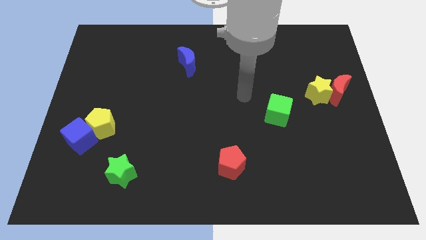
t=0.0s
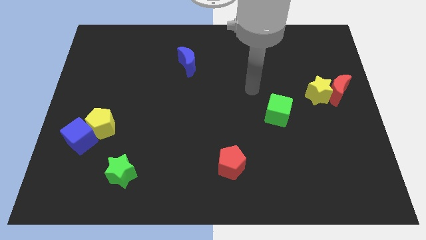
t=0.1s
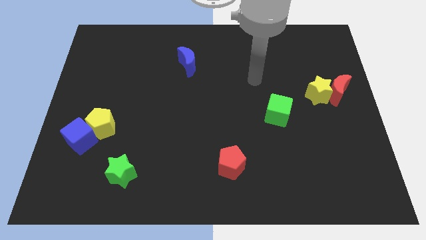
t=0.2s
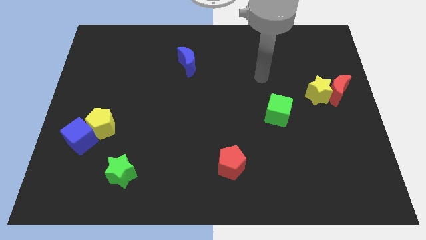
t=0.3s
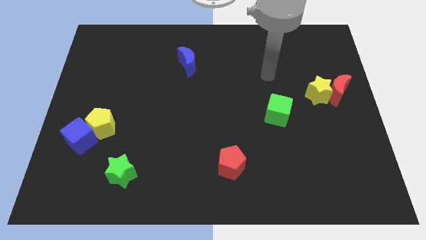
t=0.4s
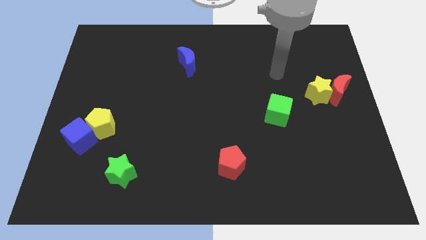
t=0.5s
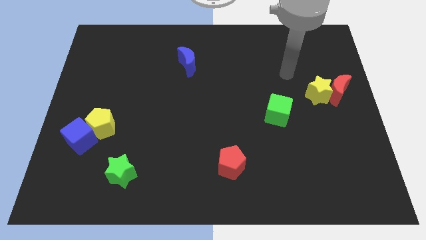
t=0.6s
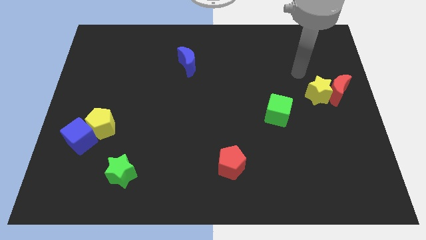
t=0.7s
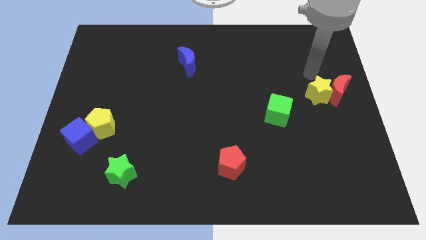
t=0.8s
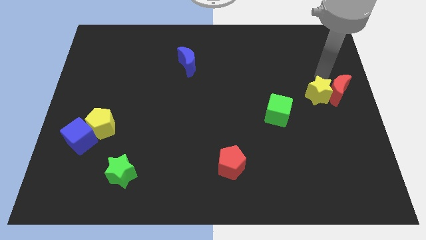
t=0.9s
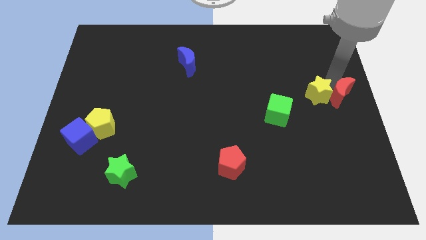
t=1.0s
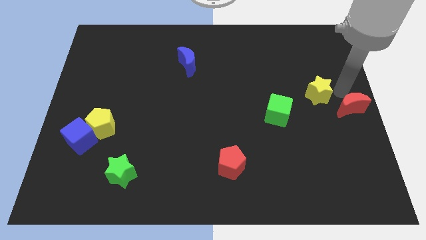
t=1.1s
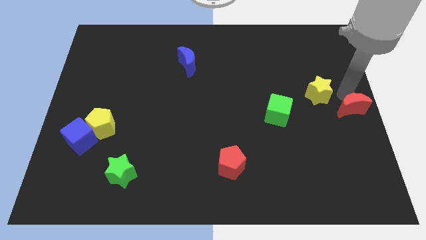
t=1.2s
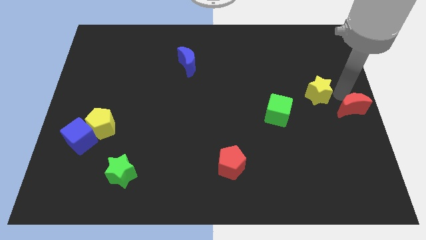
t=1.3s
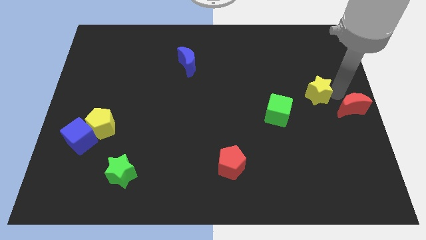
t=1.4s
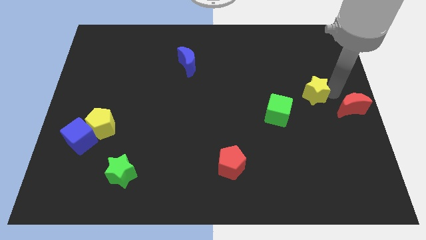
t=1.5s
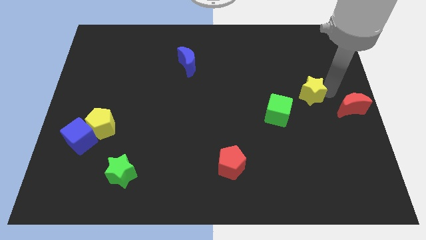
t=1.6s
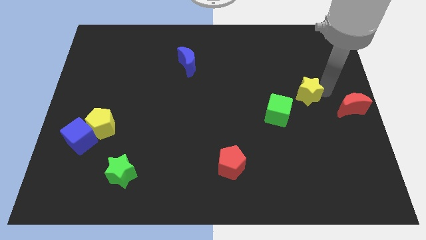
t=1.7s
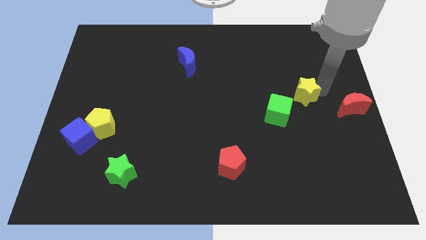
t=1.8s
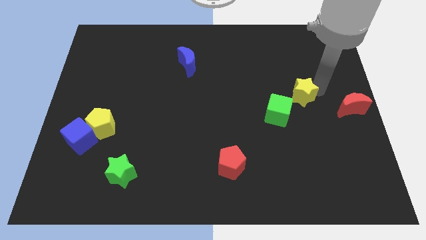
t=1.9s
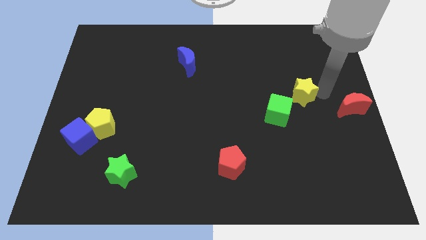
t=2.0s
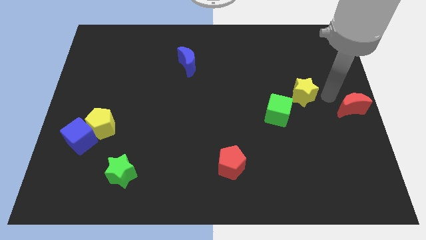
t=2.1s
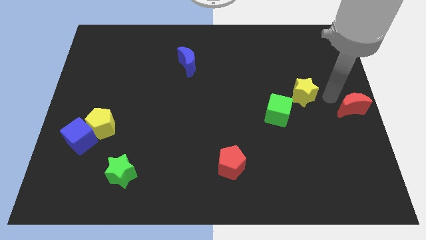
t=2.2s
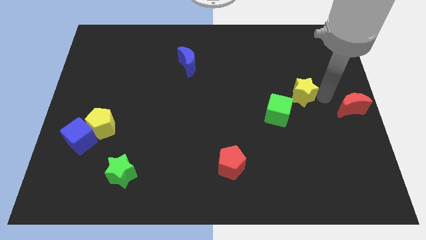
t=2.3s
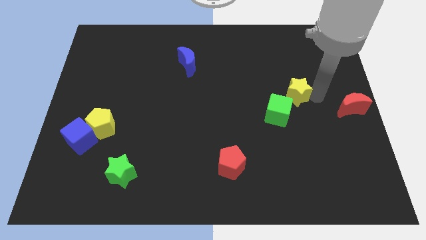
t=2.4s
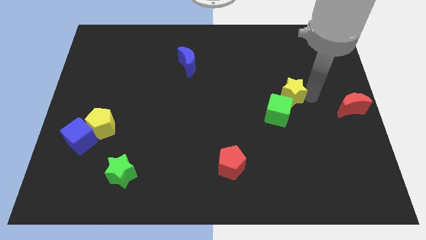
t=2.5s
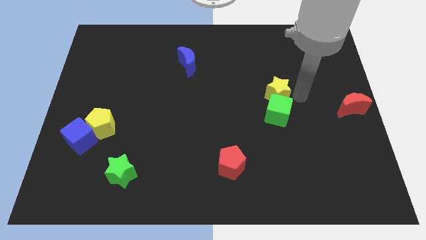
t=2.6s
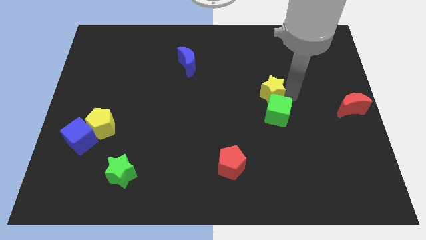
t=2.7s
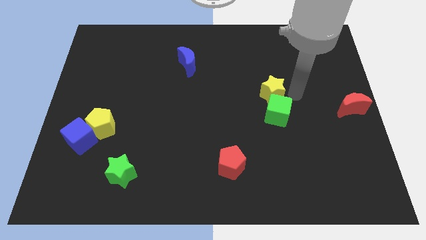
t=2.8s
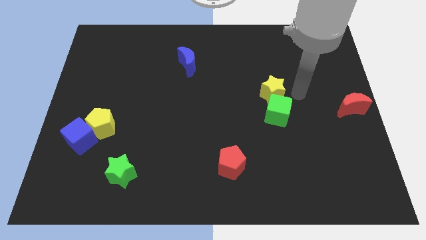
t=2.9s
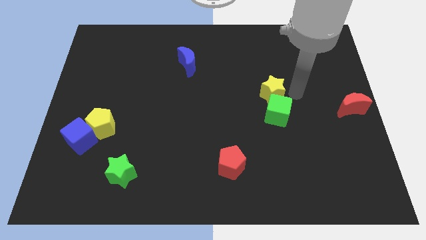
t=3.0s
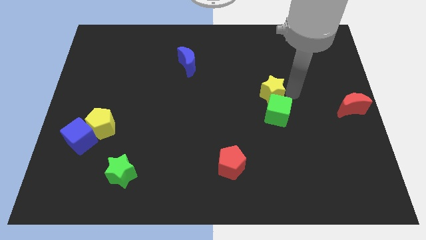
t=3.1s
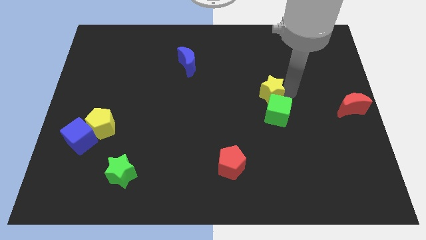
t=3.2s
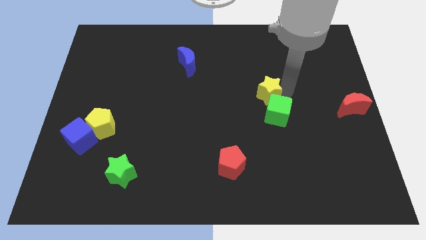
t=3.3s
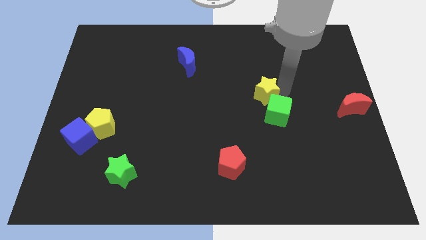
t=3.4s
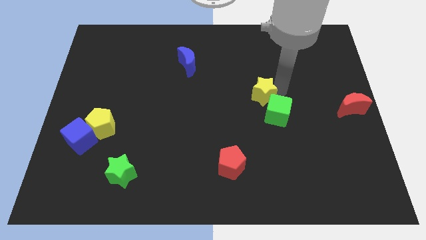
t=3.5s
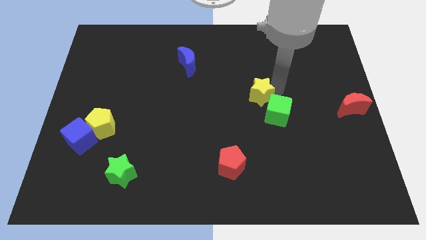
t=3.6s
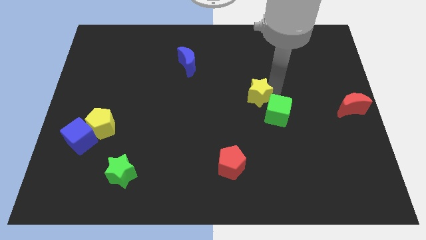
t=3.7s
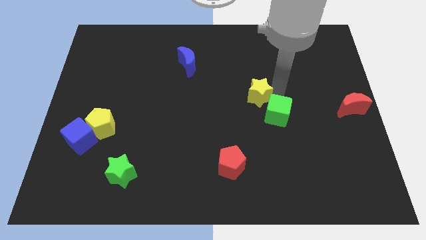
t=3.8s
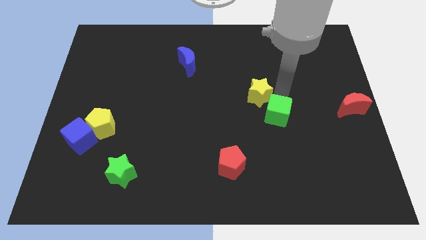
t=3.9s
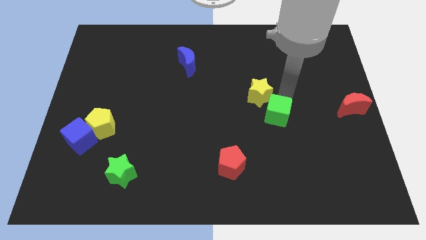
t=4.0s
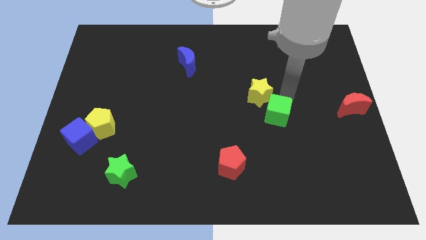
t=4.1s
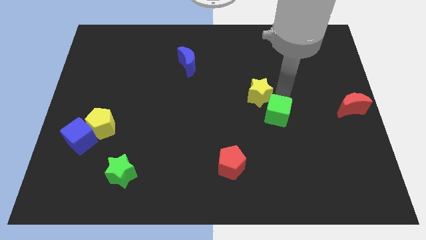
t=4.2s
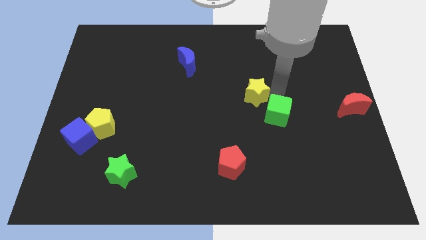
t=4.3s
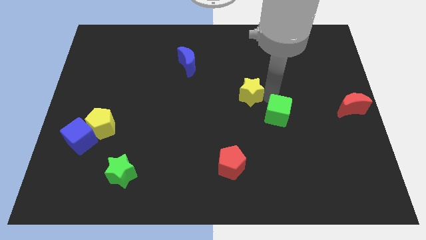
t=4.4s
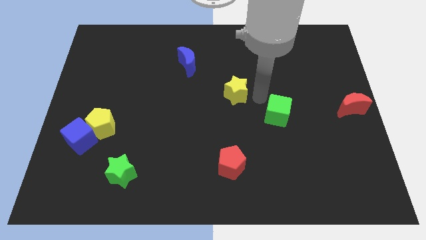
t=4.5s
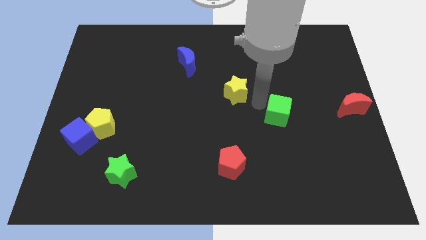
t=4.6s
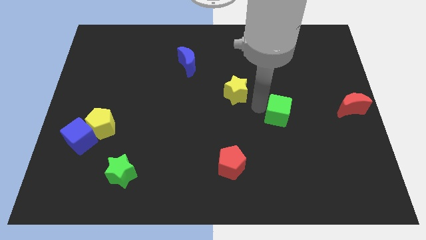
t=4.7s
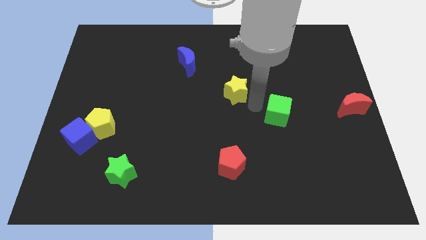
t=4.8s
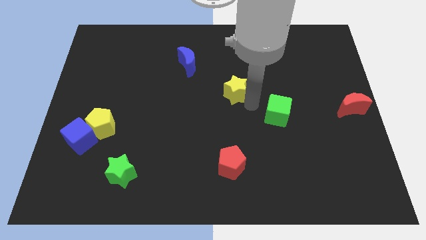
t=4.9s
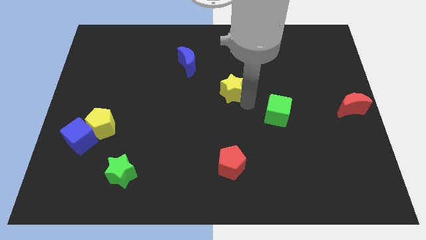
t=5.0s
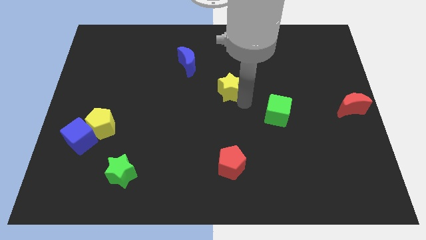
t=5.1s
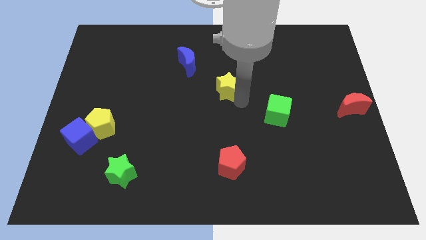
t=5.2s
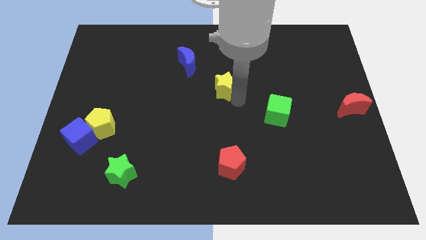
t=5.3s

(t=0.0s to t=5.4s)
move the yellow star diagonally down and to the right of the blue moon

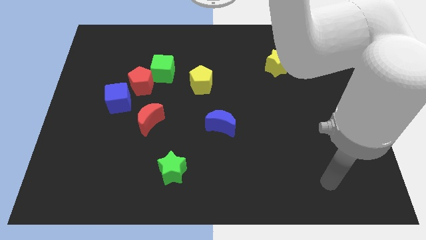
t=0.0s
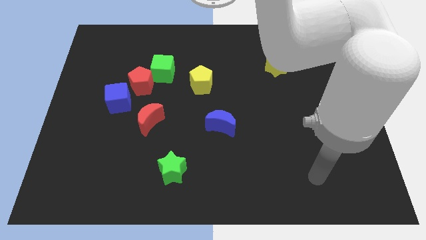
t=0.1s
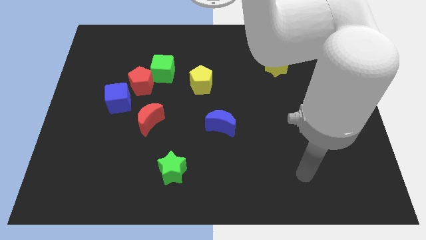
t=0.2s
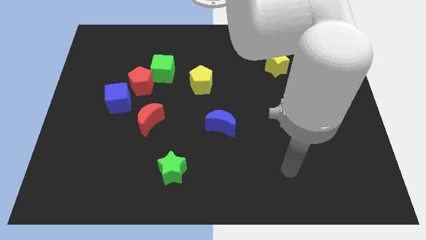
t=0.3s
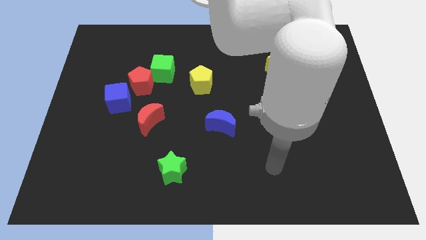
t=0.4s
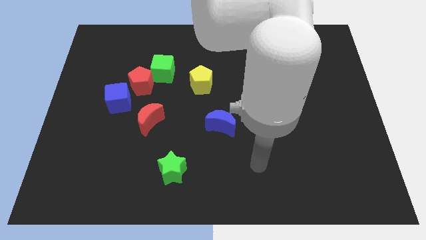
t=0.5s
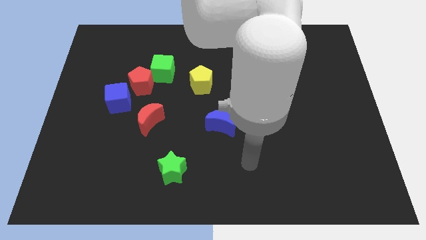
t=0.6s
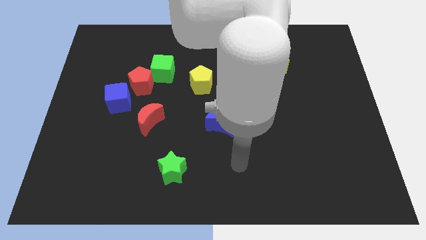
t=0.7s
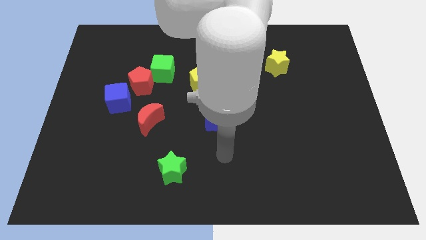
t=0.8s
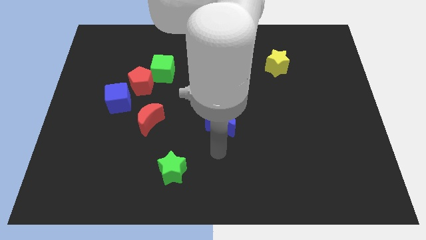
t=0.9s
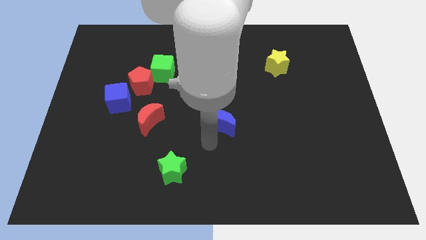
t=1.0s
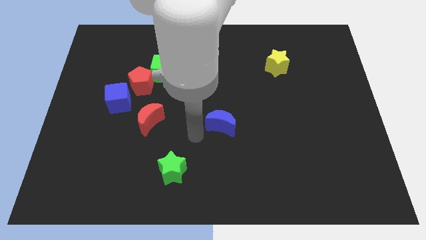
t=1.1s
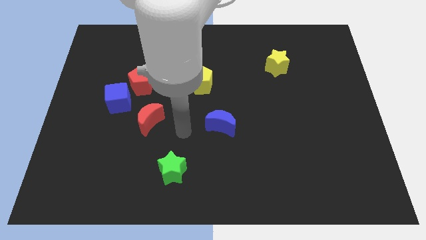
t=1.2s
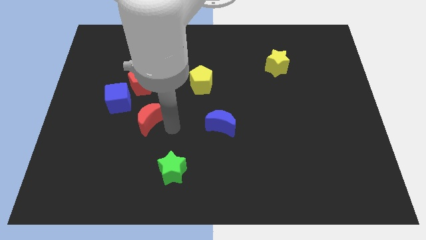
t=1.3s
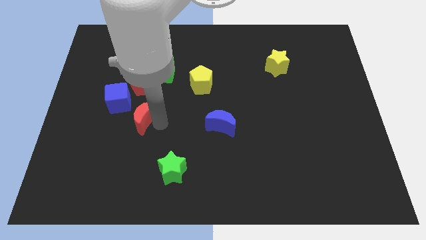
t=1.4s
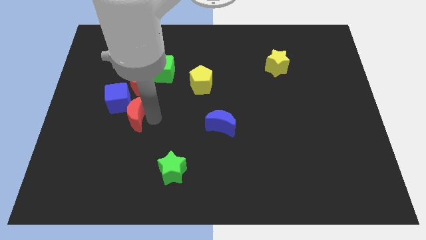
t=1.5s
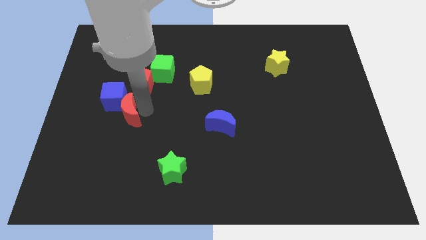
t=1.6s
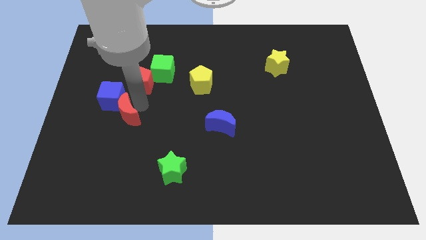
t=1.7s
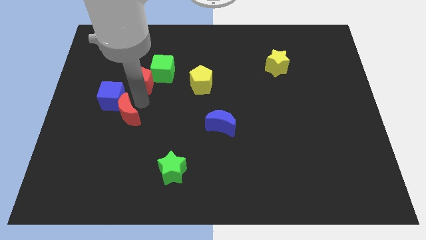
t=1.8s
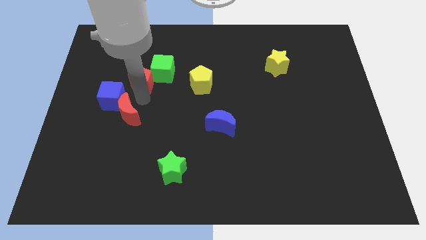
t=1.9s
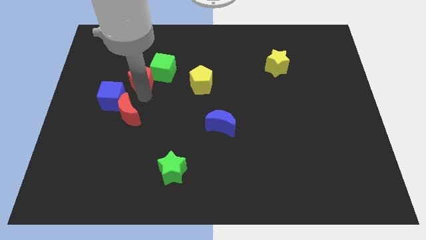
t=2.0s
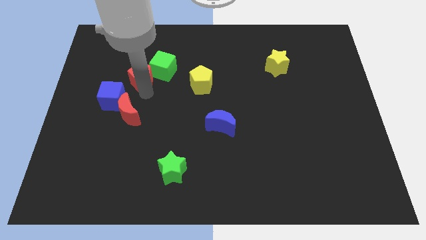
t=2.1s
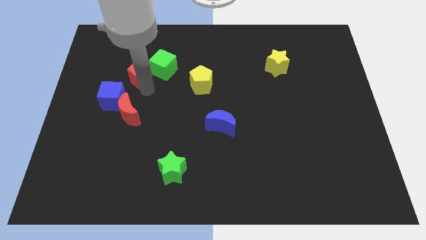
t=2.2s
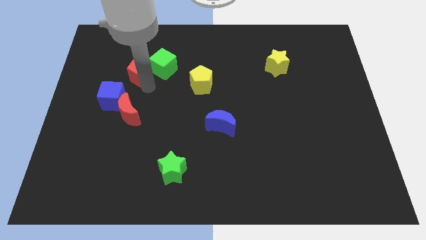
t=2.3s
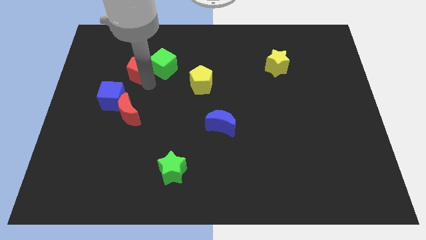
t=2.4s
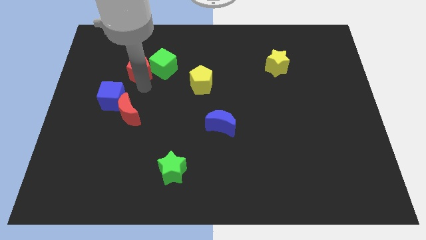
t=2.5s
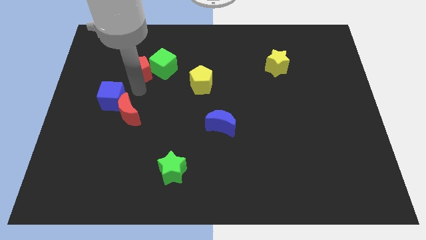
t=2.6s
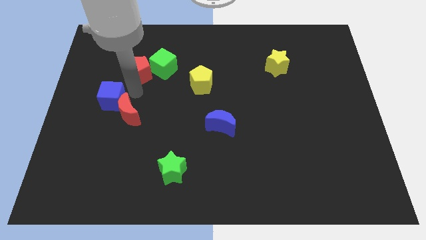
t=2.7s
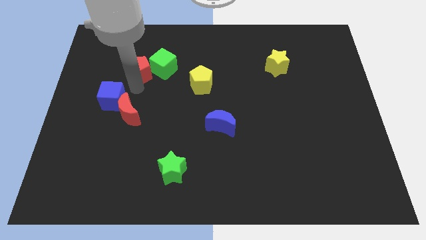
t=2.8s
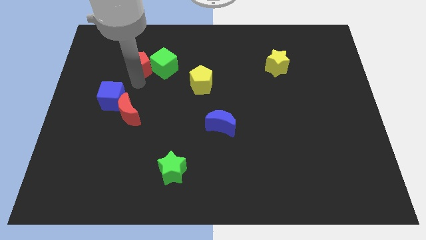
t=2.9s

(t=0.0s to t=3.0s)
move the red pentagon to the top left of the green cube
